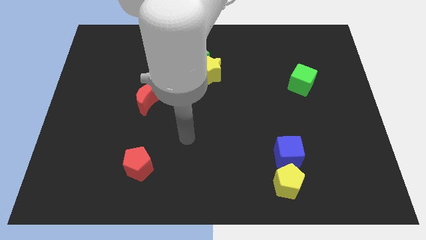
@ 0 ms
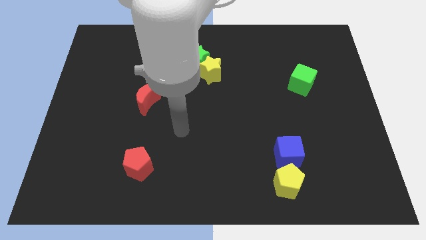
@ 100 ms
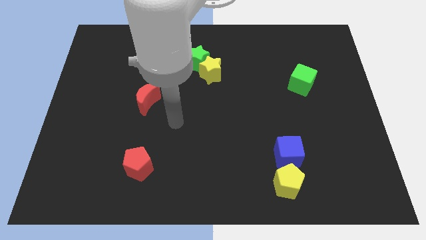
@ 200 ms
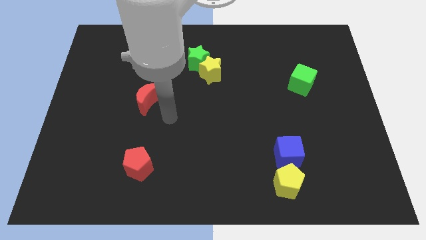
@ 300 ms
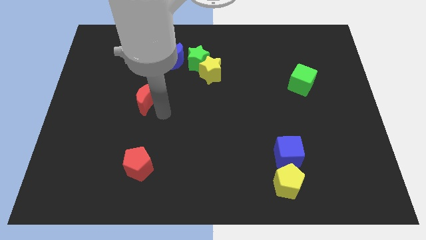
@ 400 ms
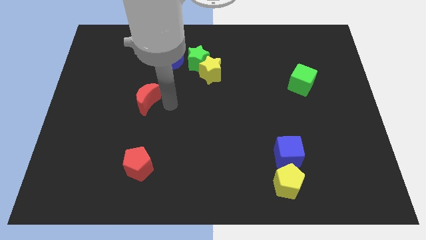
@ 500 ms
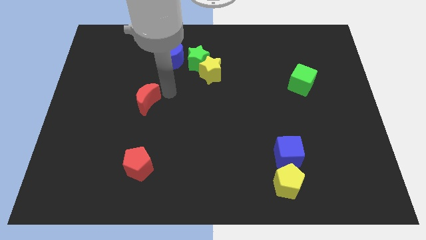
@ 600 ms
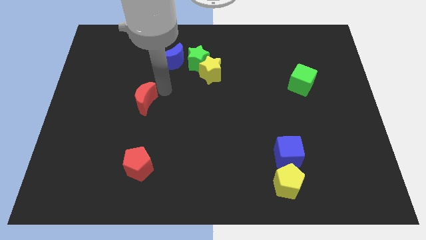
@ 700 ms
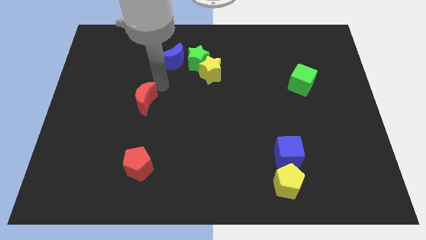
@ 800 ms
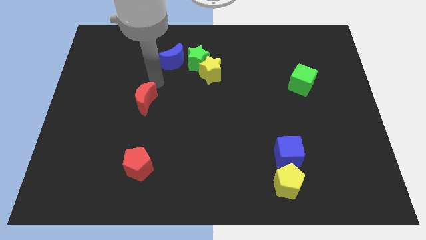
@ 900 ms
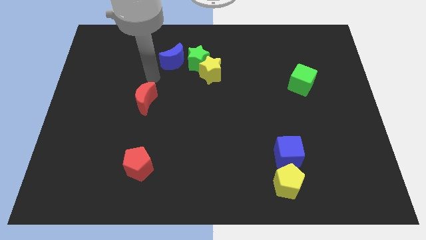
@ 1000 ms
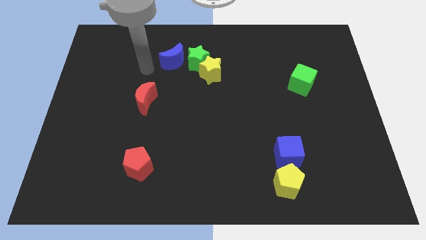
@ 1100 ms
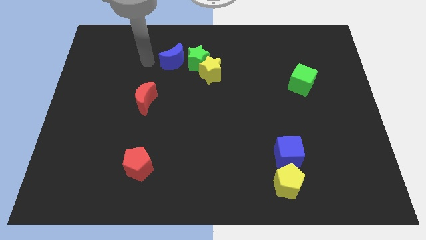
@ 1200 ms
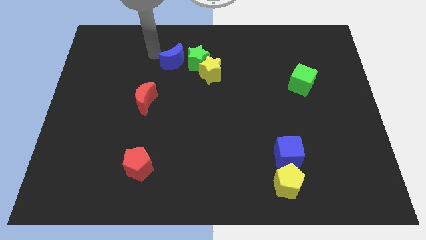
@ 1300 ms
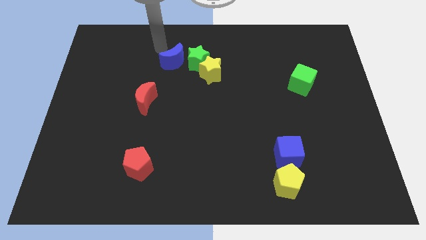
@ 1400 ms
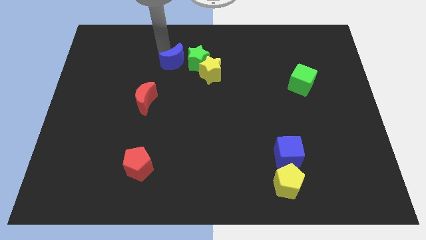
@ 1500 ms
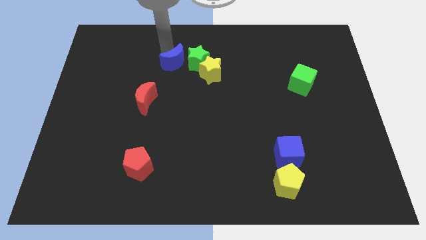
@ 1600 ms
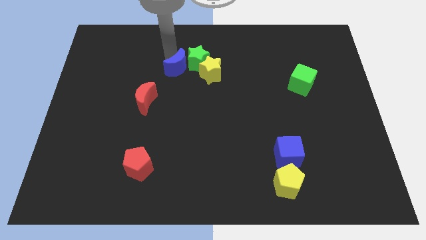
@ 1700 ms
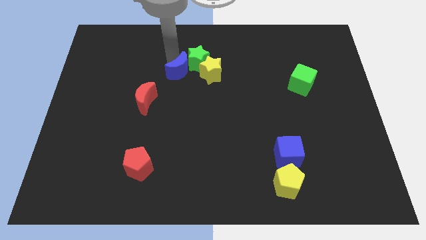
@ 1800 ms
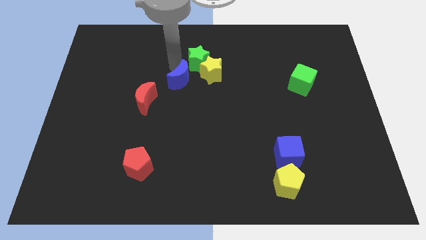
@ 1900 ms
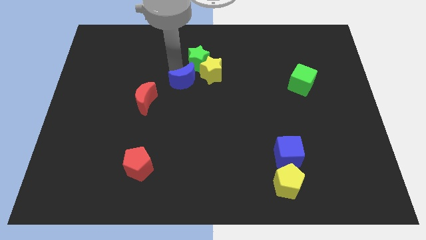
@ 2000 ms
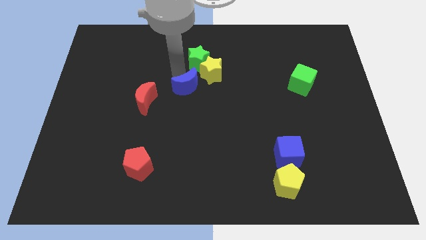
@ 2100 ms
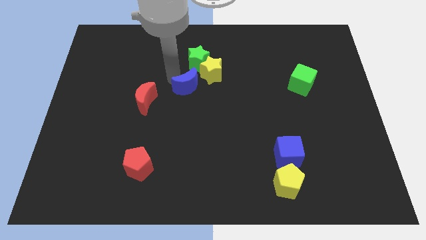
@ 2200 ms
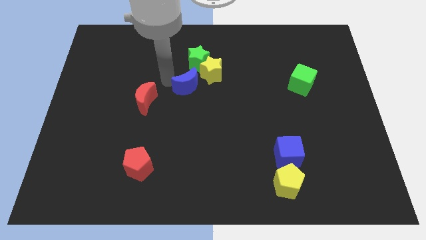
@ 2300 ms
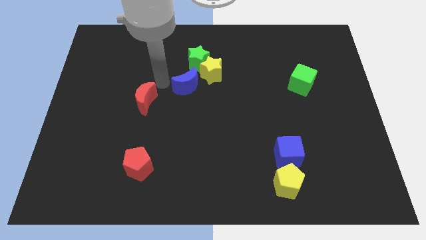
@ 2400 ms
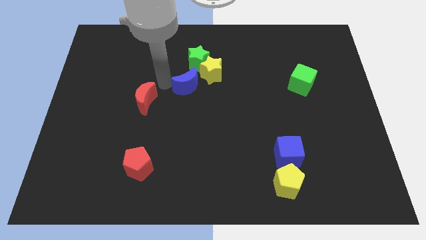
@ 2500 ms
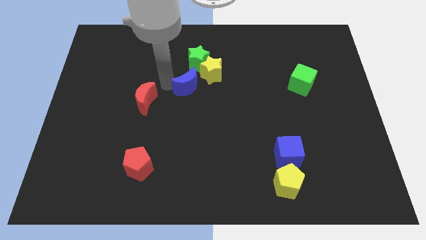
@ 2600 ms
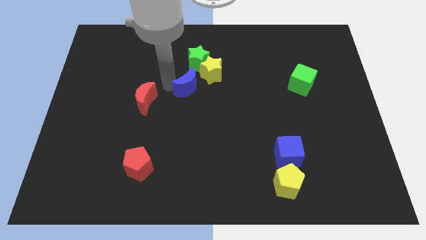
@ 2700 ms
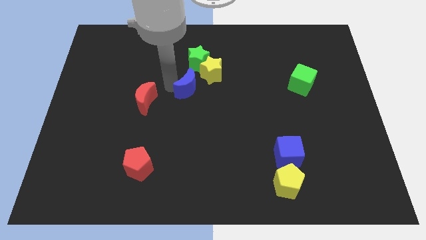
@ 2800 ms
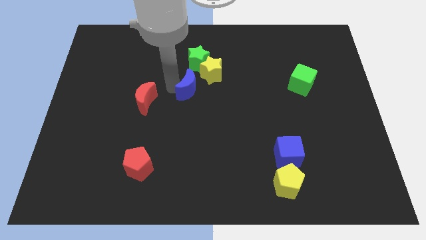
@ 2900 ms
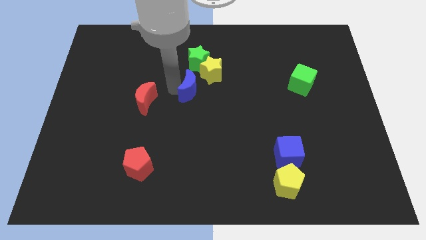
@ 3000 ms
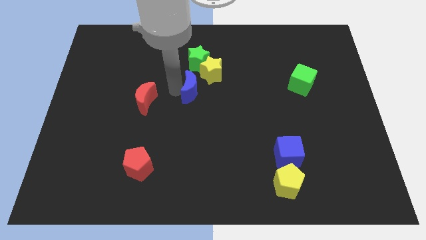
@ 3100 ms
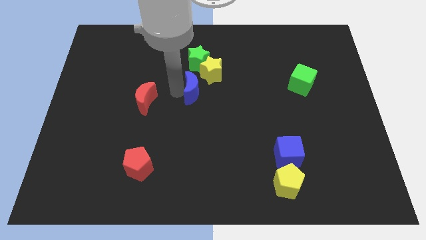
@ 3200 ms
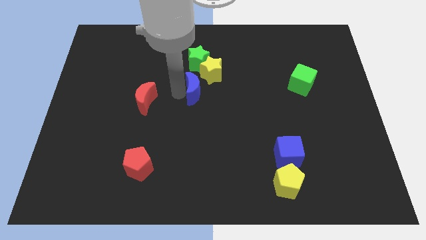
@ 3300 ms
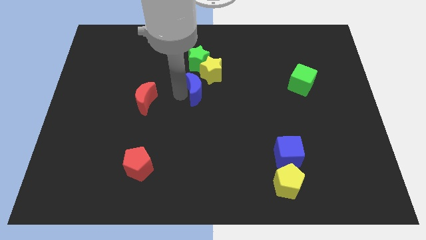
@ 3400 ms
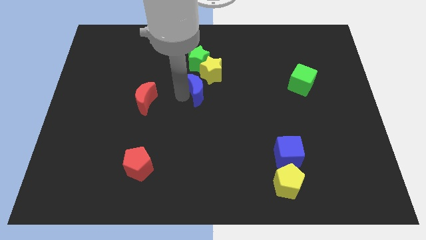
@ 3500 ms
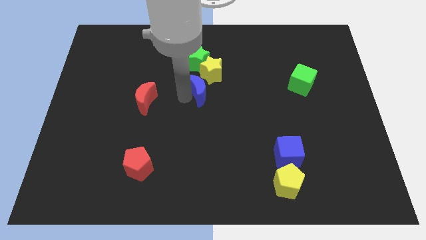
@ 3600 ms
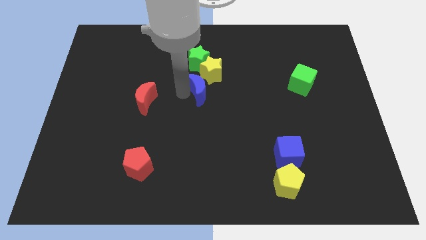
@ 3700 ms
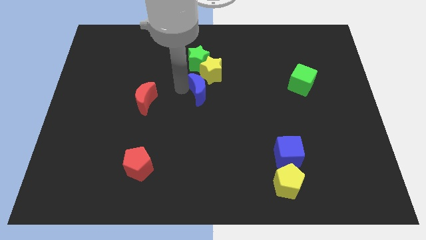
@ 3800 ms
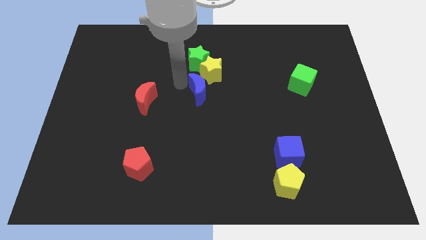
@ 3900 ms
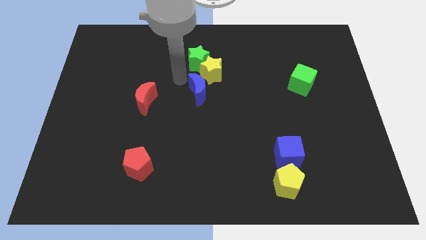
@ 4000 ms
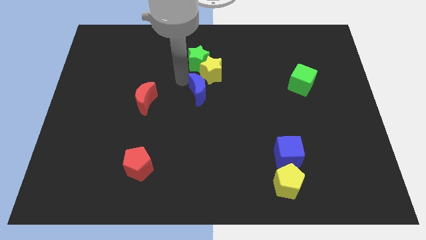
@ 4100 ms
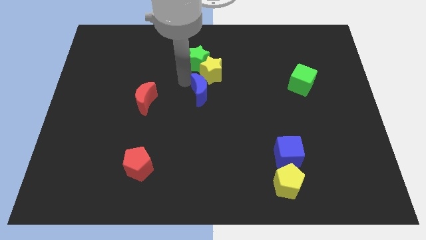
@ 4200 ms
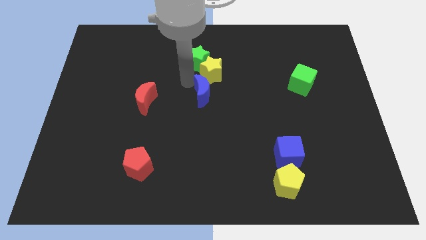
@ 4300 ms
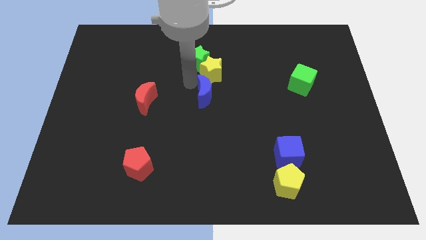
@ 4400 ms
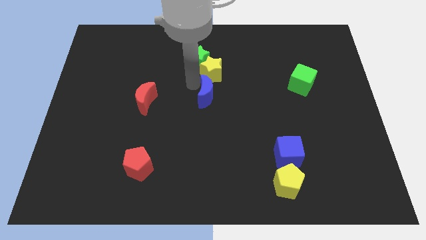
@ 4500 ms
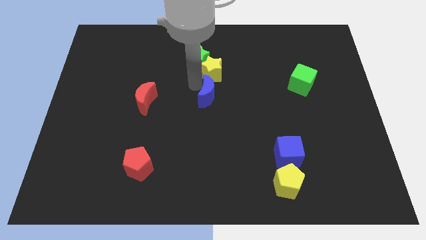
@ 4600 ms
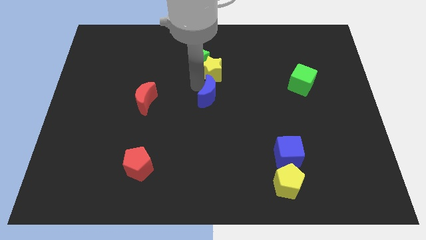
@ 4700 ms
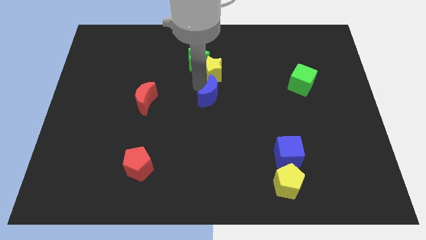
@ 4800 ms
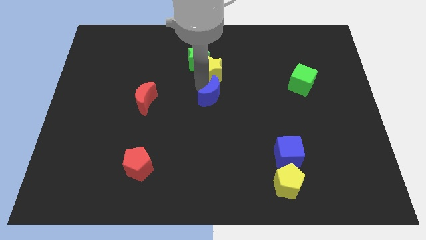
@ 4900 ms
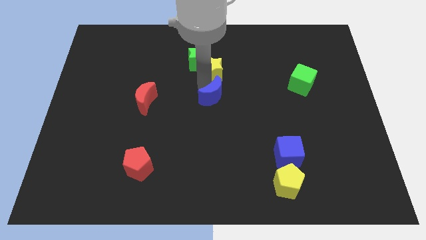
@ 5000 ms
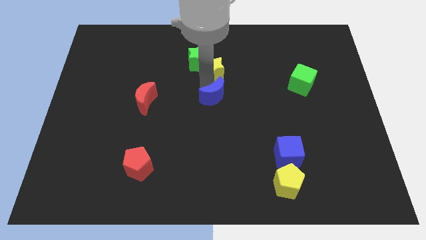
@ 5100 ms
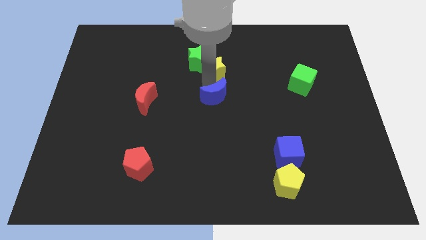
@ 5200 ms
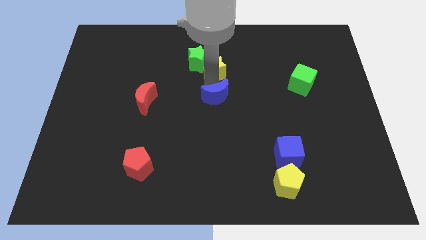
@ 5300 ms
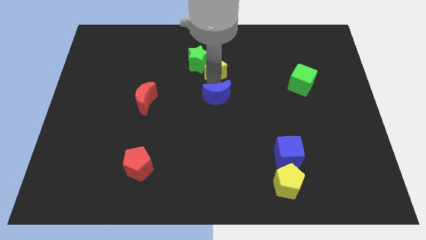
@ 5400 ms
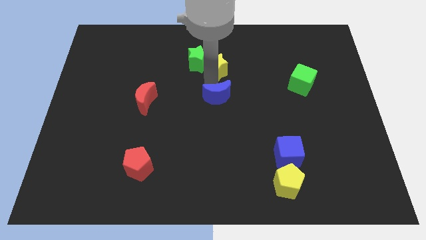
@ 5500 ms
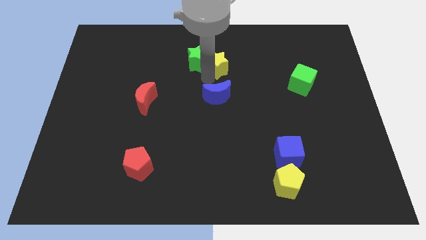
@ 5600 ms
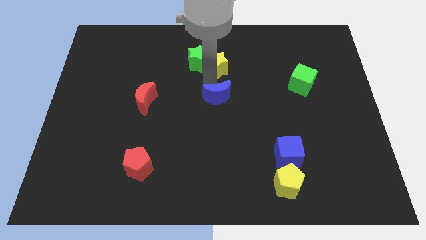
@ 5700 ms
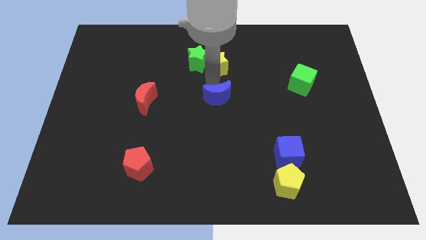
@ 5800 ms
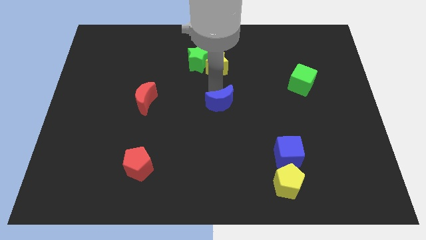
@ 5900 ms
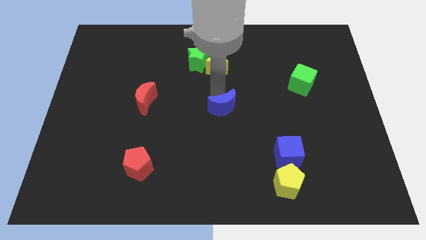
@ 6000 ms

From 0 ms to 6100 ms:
push the blue moon down and then right

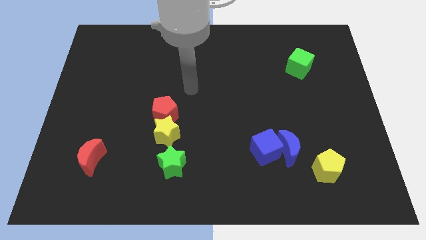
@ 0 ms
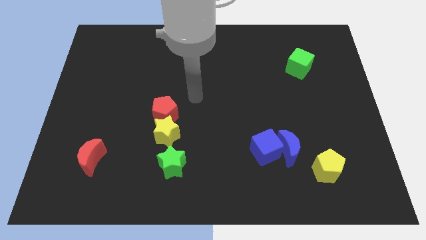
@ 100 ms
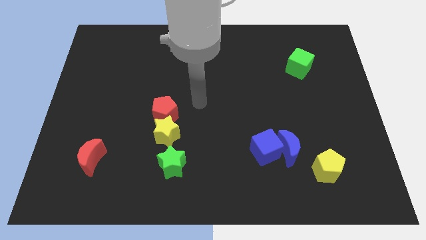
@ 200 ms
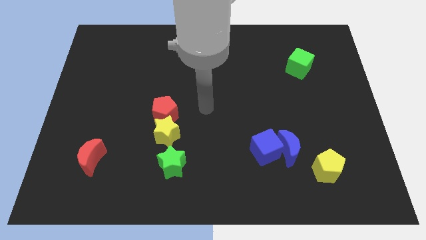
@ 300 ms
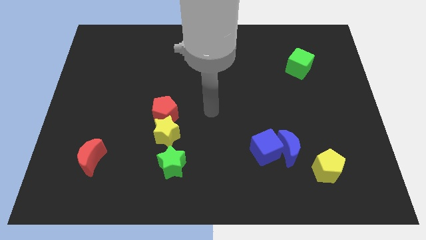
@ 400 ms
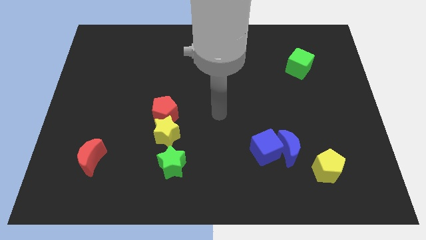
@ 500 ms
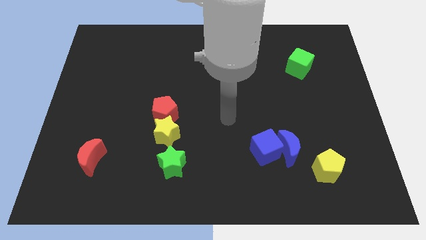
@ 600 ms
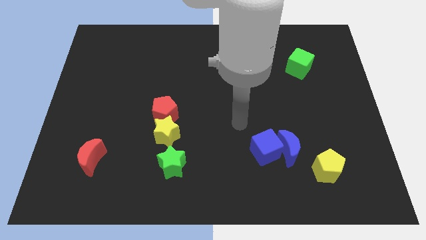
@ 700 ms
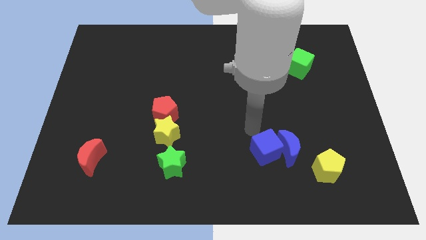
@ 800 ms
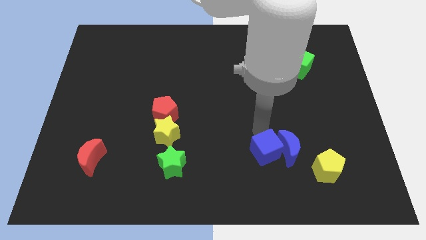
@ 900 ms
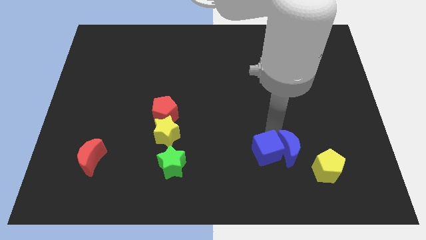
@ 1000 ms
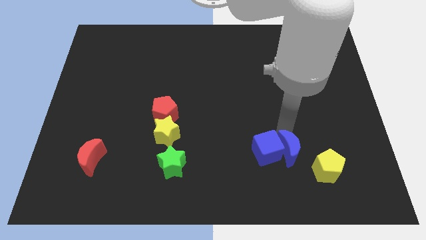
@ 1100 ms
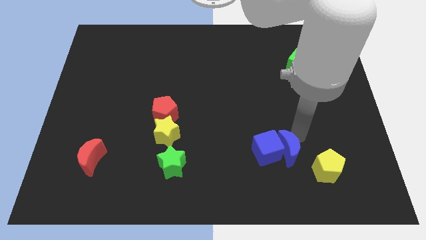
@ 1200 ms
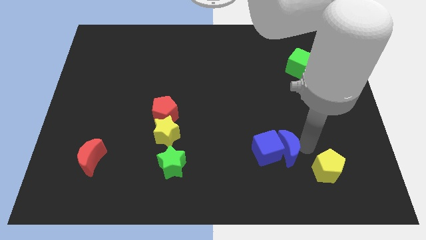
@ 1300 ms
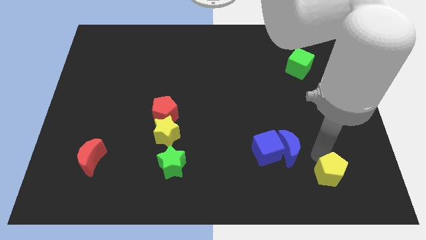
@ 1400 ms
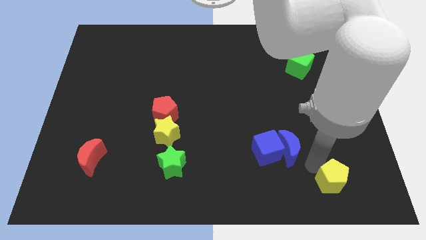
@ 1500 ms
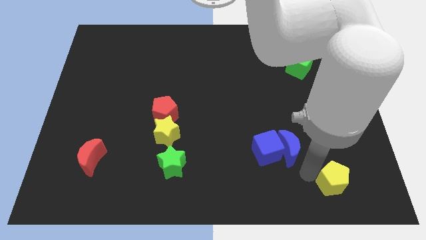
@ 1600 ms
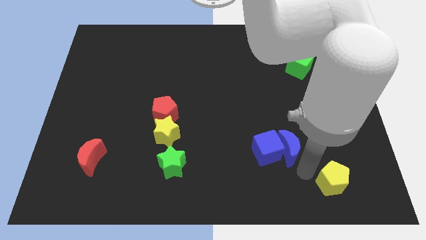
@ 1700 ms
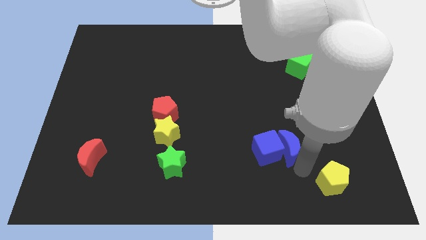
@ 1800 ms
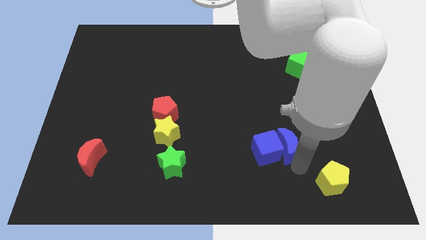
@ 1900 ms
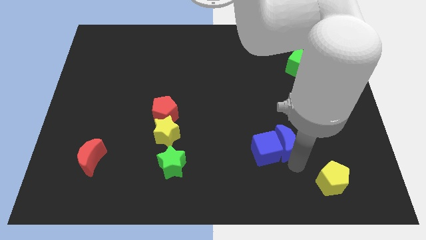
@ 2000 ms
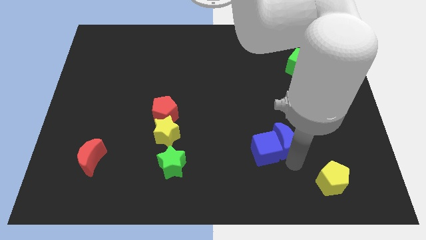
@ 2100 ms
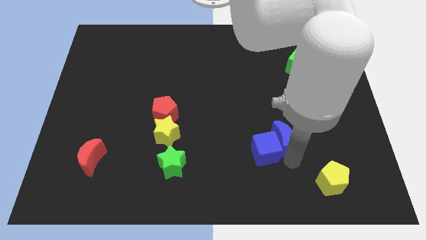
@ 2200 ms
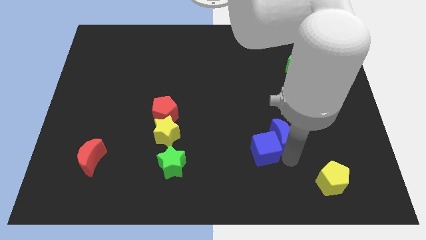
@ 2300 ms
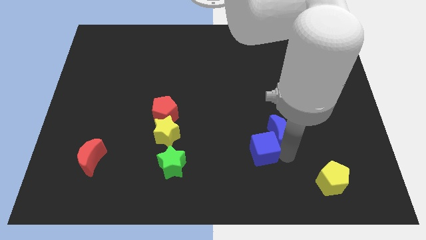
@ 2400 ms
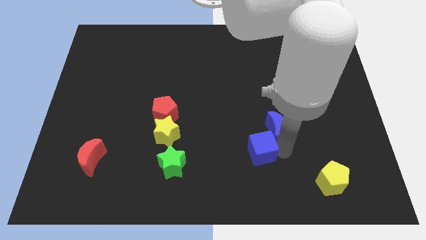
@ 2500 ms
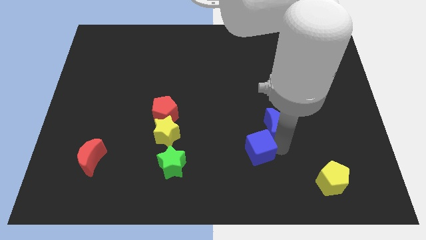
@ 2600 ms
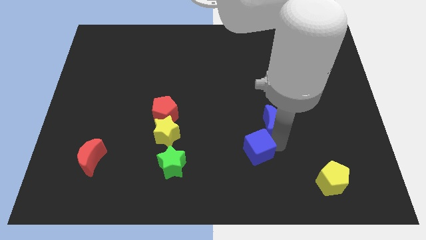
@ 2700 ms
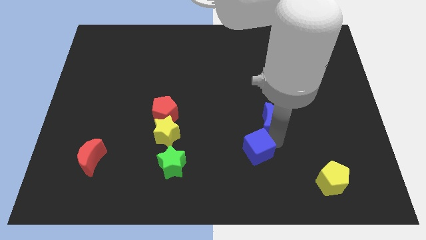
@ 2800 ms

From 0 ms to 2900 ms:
slide the blue moon a little upwards and left
